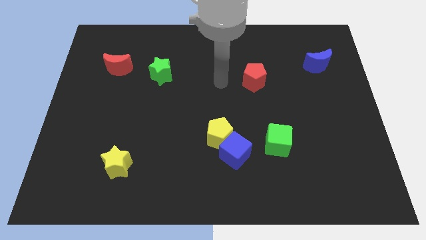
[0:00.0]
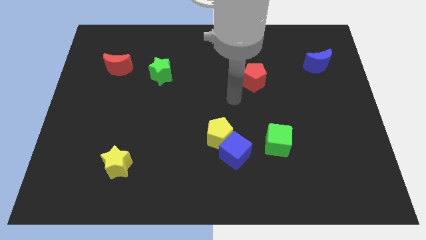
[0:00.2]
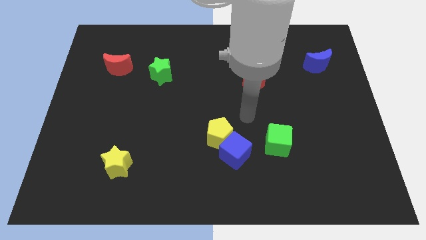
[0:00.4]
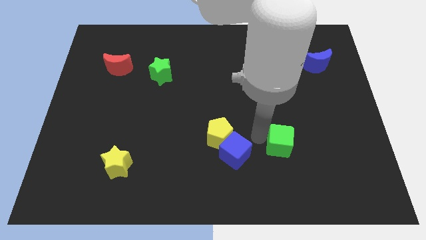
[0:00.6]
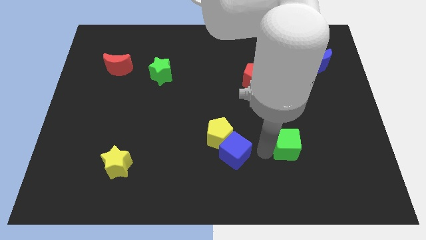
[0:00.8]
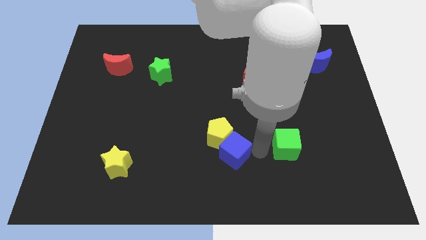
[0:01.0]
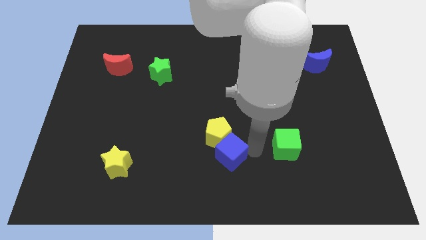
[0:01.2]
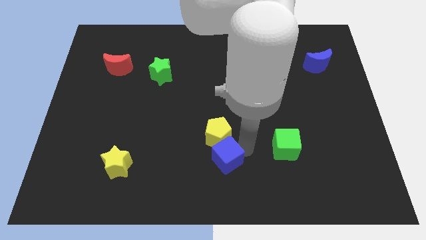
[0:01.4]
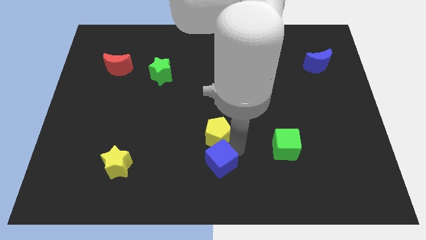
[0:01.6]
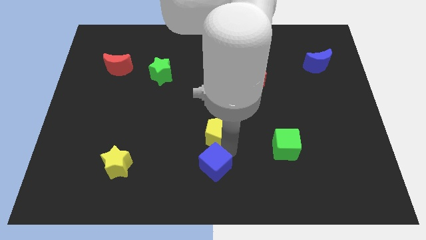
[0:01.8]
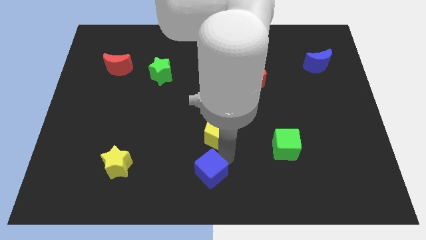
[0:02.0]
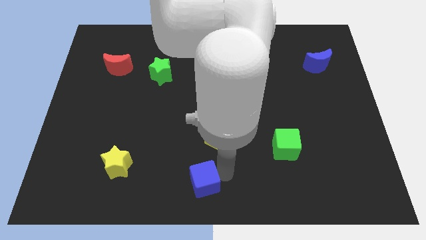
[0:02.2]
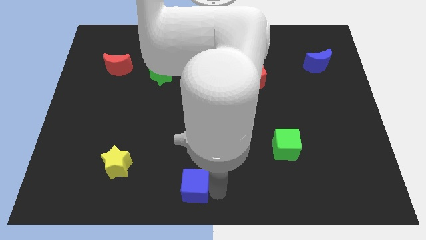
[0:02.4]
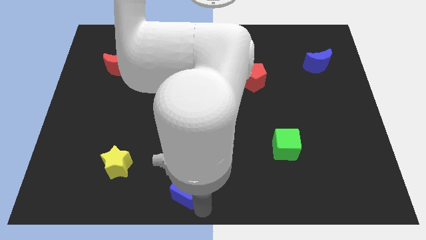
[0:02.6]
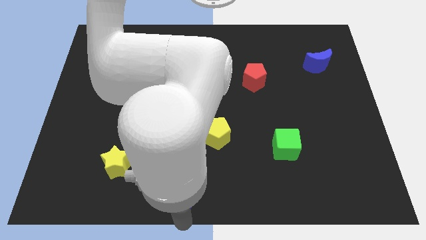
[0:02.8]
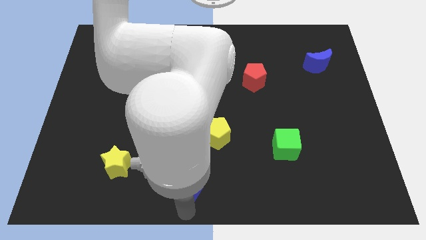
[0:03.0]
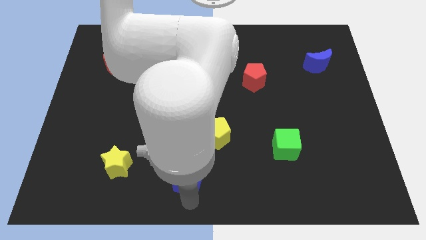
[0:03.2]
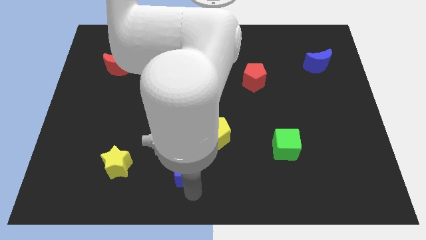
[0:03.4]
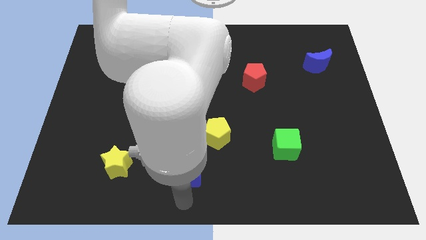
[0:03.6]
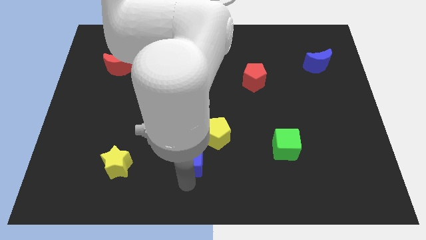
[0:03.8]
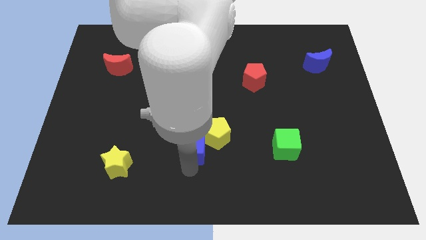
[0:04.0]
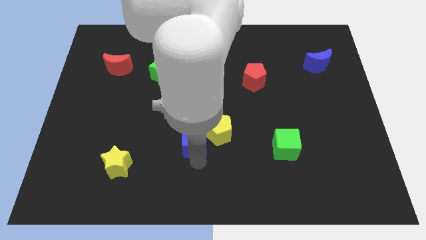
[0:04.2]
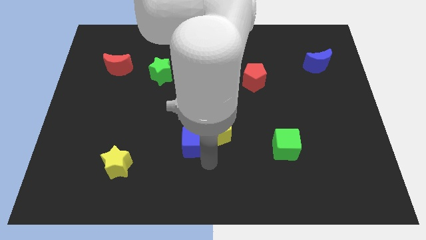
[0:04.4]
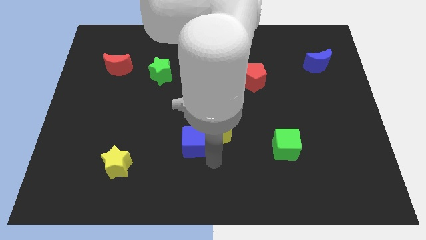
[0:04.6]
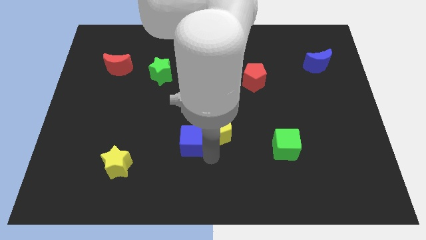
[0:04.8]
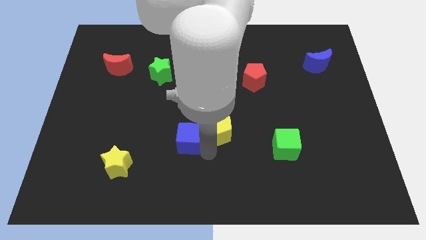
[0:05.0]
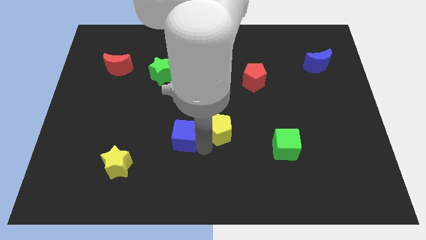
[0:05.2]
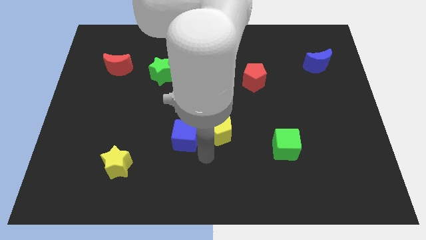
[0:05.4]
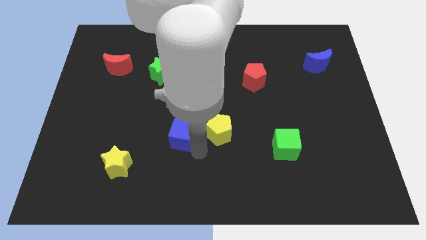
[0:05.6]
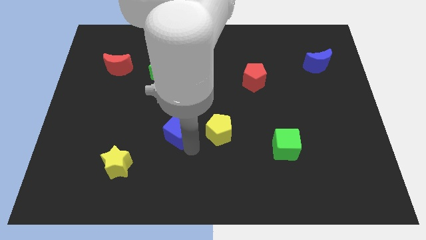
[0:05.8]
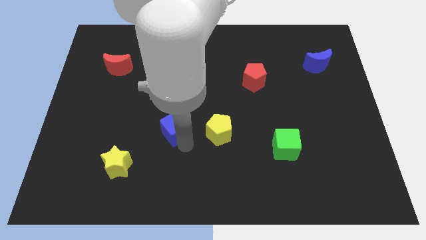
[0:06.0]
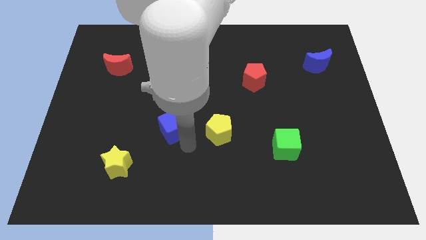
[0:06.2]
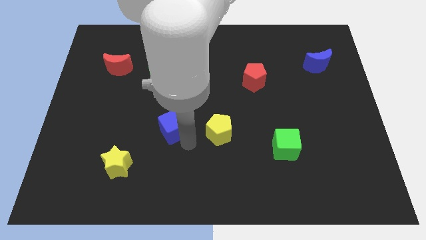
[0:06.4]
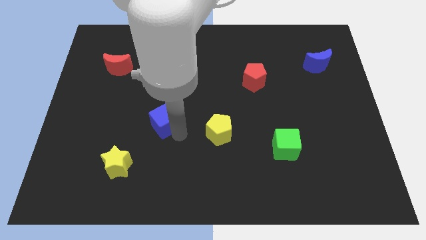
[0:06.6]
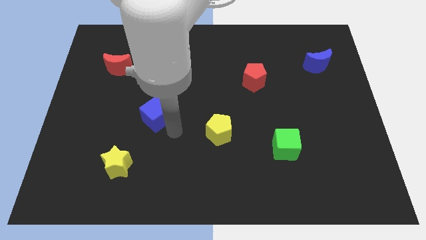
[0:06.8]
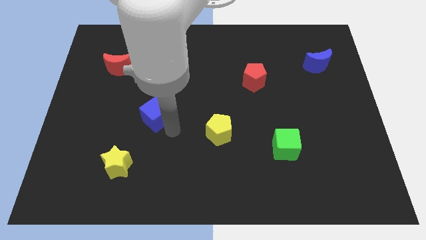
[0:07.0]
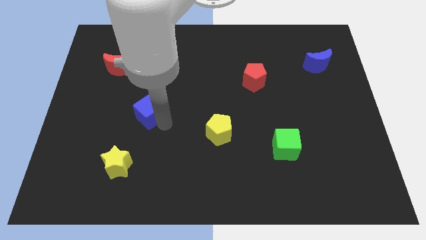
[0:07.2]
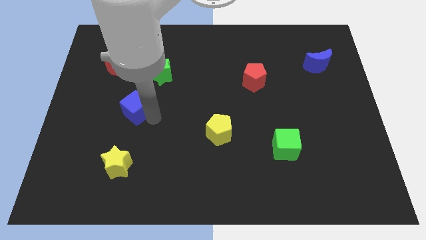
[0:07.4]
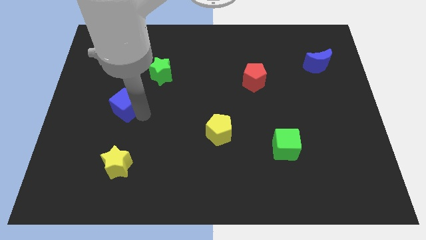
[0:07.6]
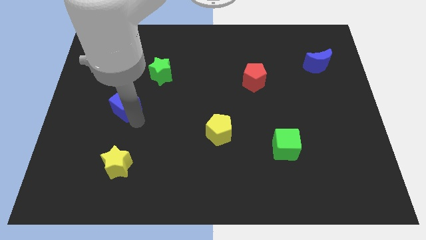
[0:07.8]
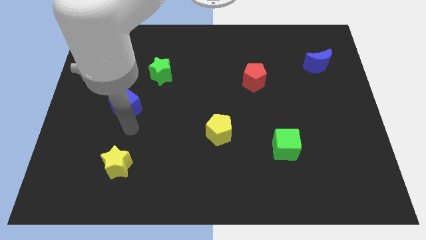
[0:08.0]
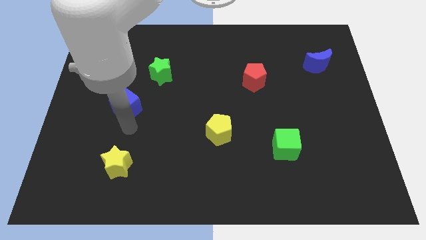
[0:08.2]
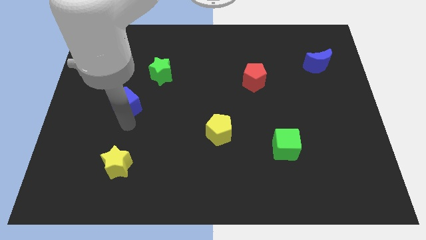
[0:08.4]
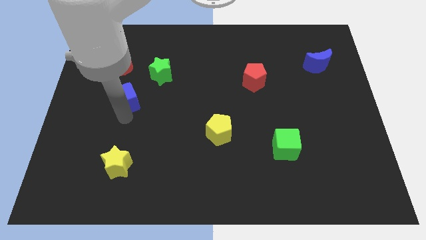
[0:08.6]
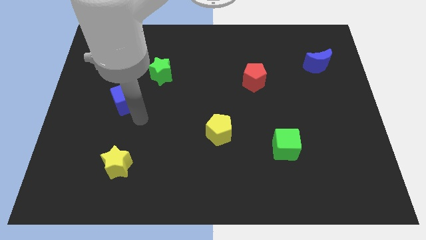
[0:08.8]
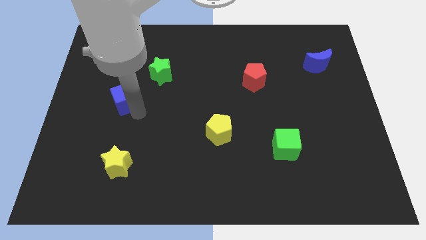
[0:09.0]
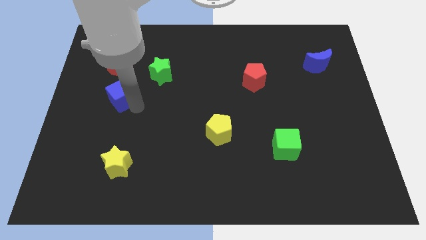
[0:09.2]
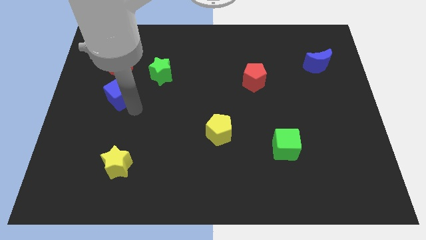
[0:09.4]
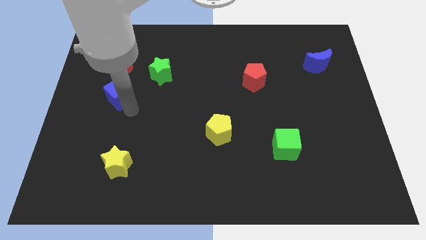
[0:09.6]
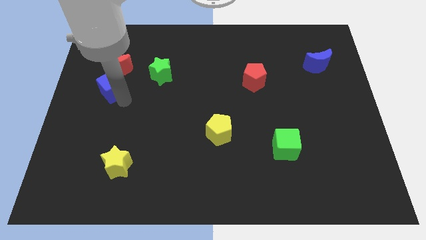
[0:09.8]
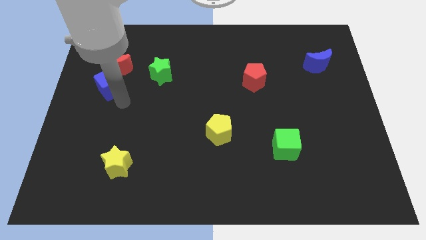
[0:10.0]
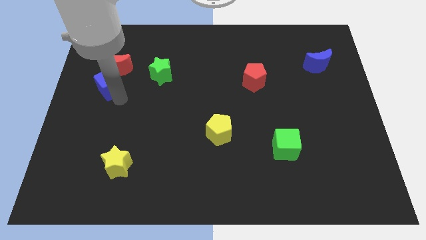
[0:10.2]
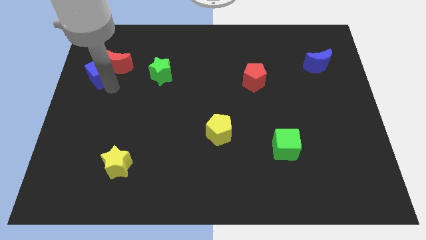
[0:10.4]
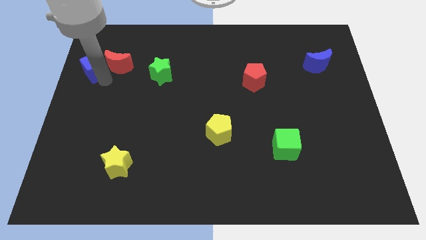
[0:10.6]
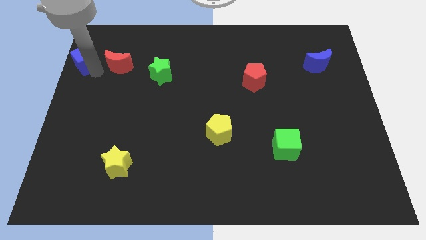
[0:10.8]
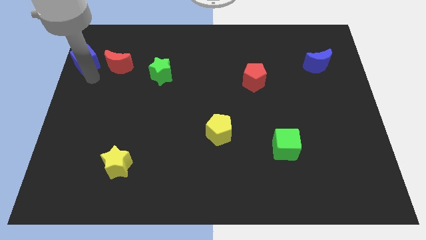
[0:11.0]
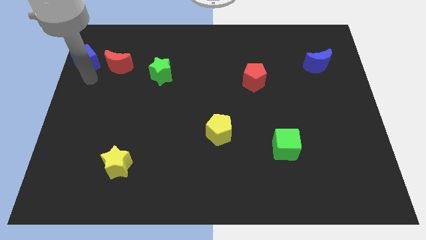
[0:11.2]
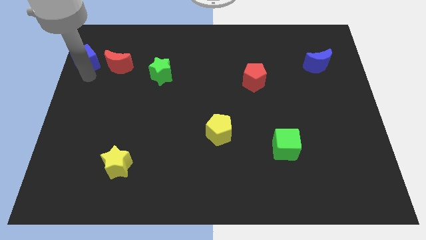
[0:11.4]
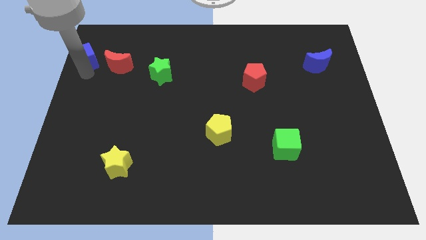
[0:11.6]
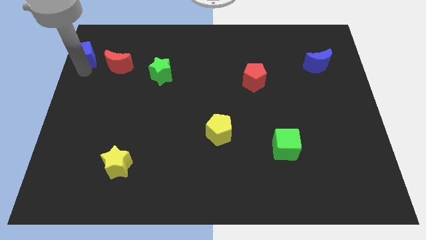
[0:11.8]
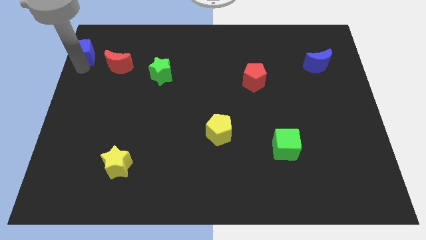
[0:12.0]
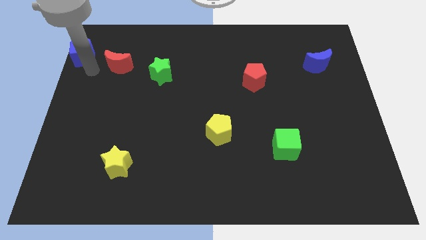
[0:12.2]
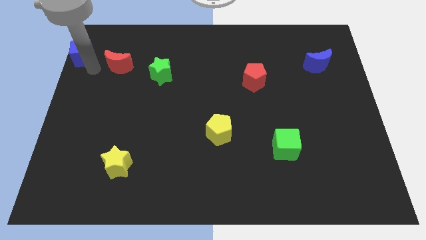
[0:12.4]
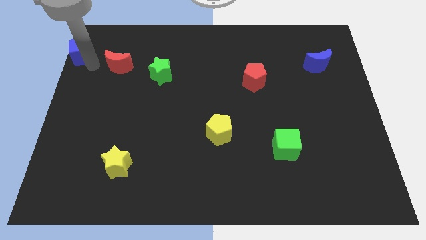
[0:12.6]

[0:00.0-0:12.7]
put the blue cube to the top left of the board
